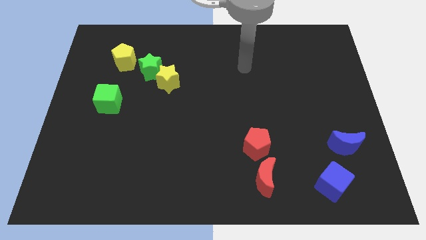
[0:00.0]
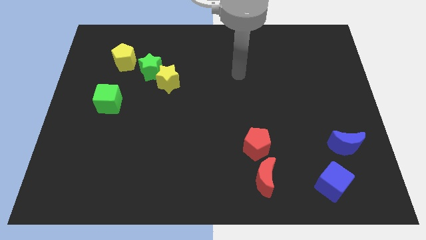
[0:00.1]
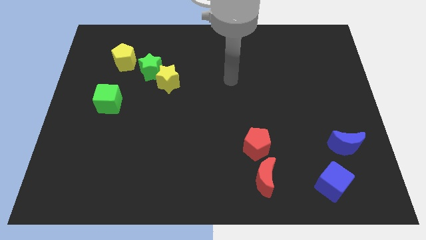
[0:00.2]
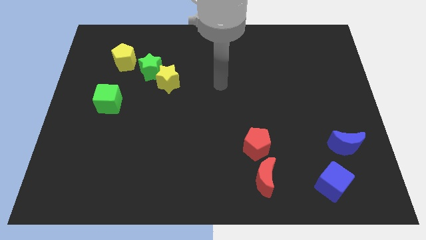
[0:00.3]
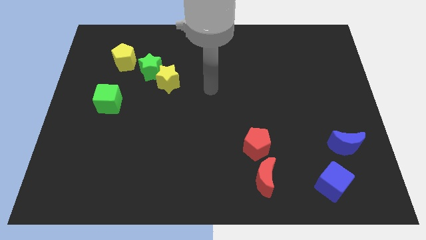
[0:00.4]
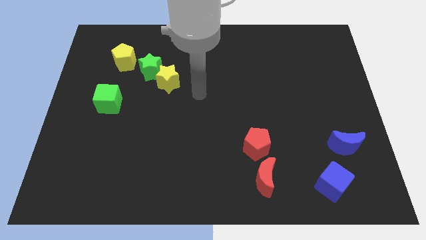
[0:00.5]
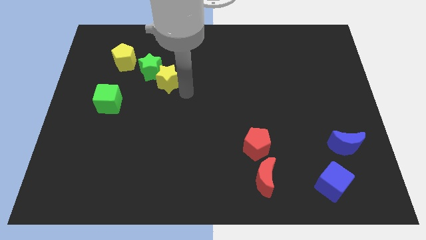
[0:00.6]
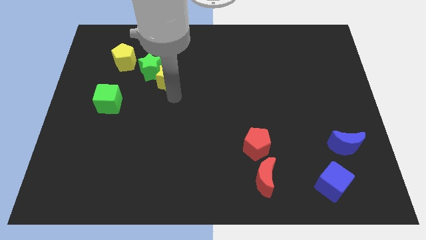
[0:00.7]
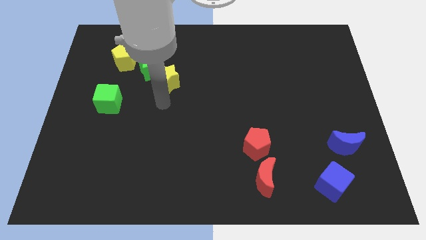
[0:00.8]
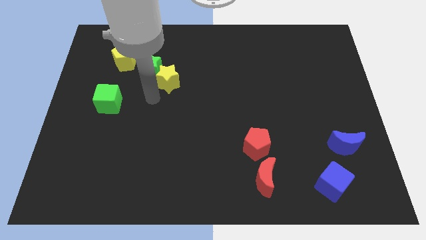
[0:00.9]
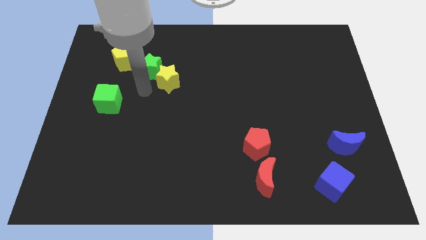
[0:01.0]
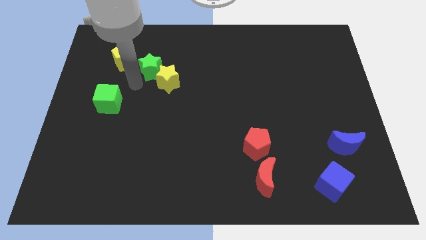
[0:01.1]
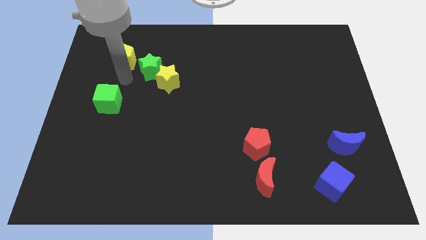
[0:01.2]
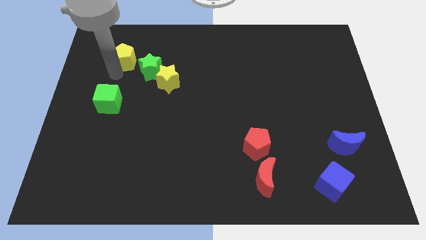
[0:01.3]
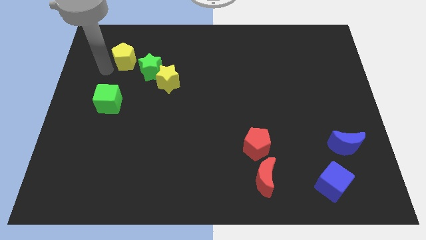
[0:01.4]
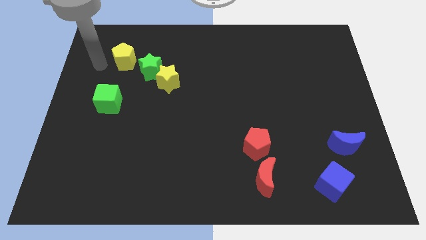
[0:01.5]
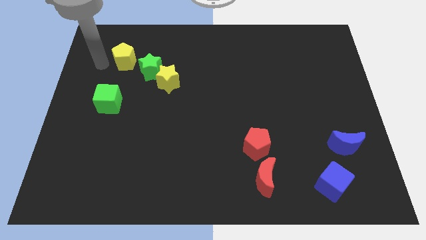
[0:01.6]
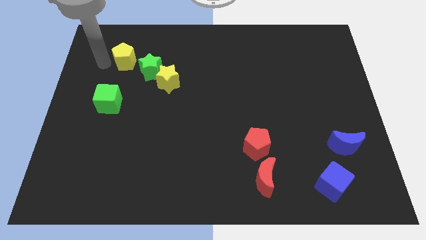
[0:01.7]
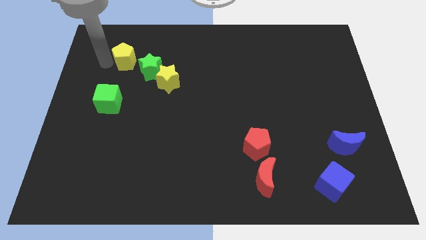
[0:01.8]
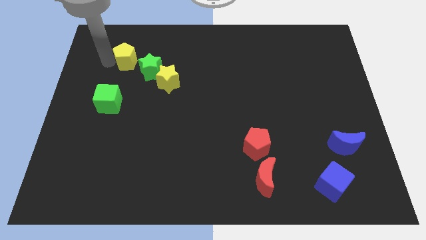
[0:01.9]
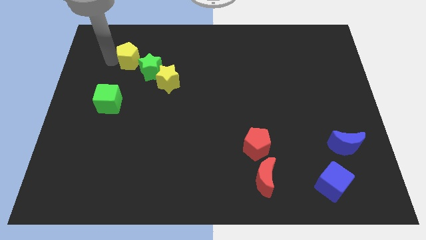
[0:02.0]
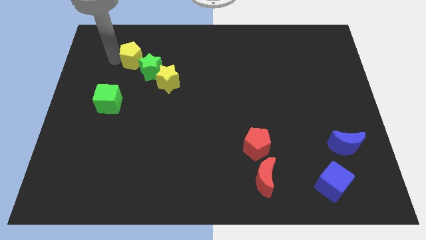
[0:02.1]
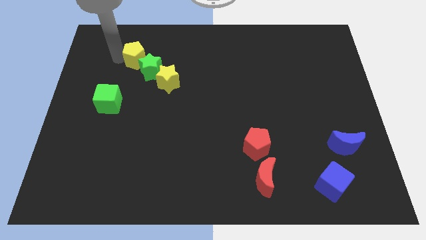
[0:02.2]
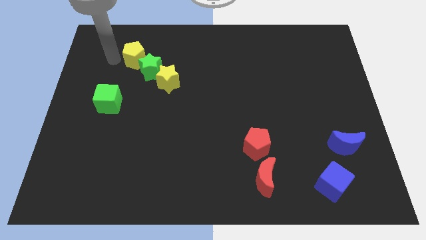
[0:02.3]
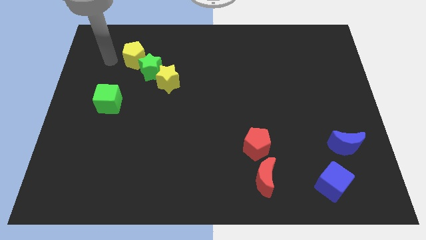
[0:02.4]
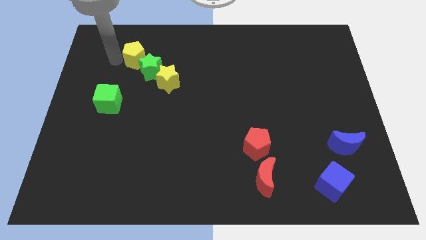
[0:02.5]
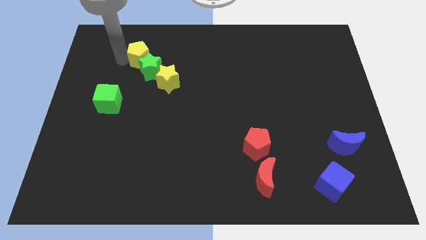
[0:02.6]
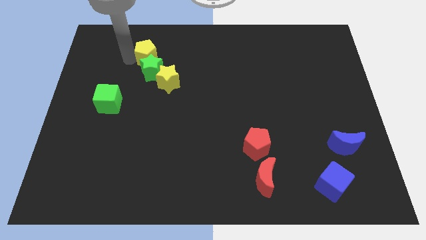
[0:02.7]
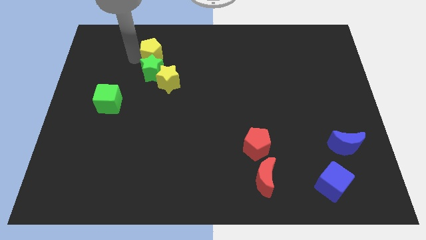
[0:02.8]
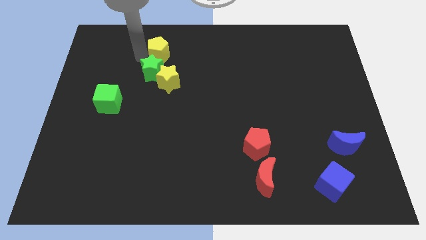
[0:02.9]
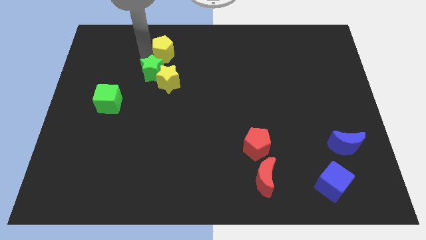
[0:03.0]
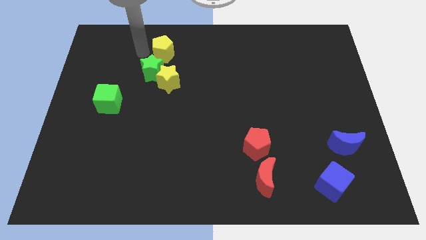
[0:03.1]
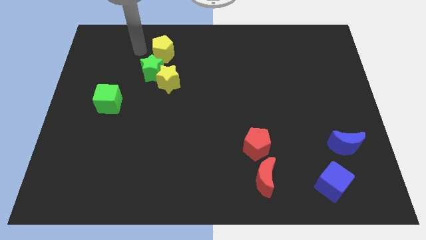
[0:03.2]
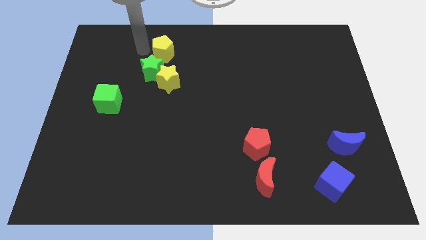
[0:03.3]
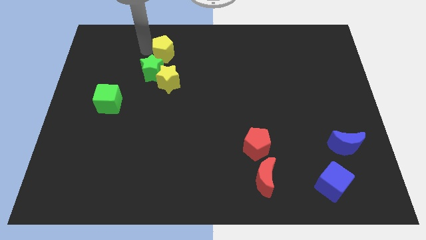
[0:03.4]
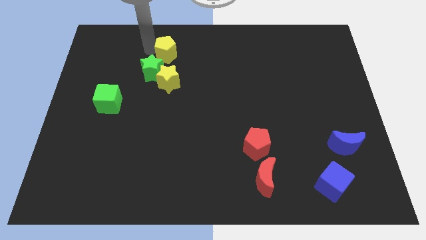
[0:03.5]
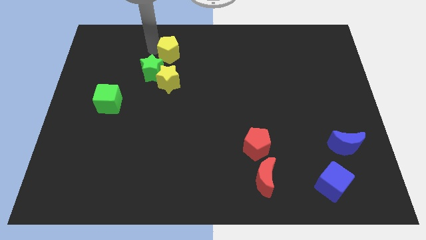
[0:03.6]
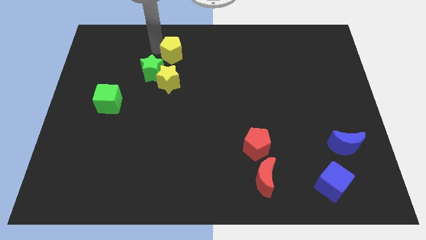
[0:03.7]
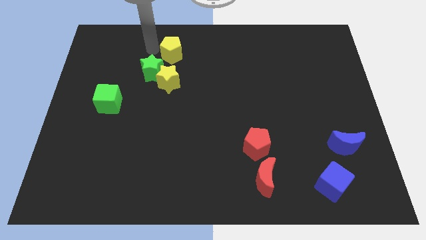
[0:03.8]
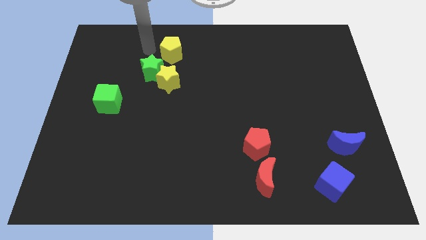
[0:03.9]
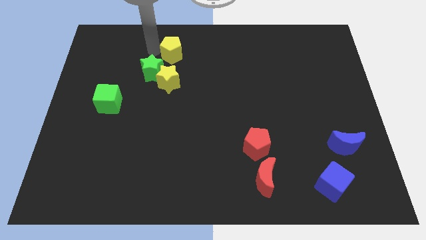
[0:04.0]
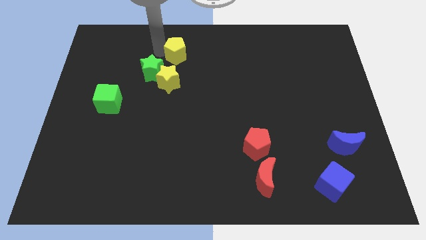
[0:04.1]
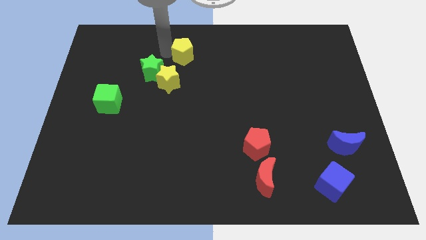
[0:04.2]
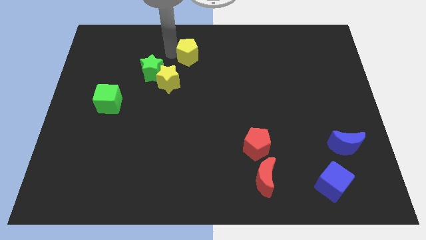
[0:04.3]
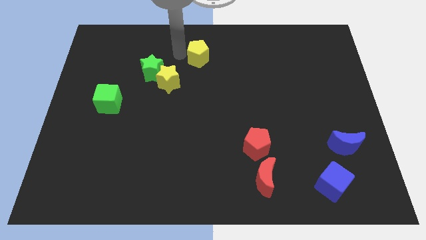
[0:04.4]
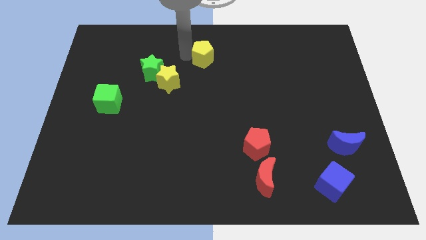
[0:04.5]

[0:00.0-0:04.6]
move the yellow pentagon right

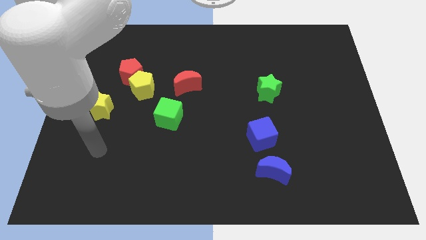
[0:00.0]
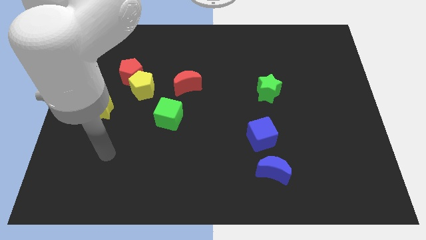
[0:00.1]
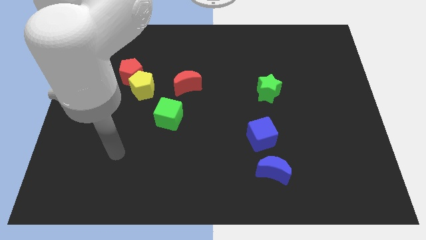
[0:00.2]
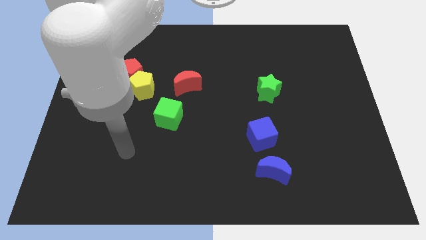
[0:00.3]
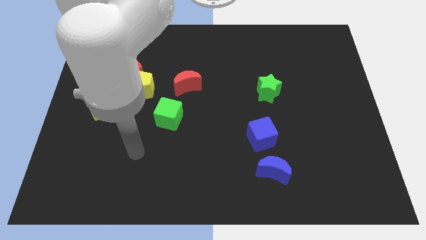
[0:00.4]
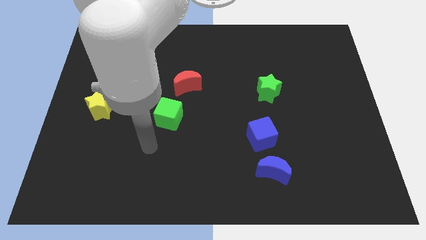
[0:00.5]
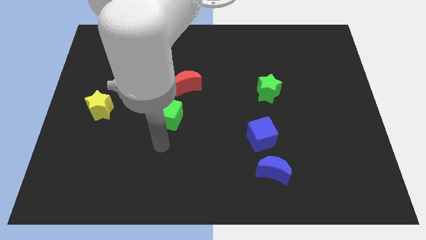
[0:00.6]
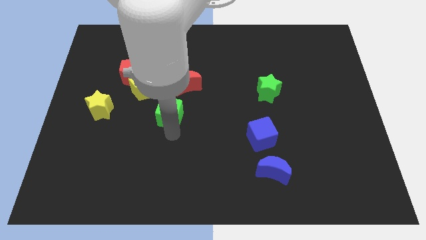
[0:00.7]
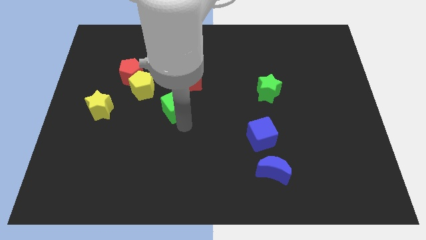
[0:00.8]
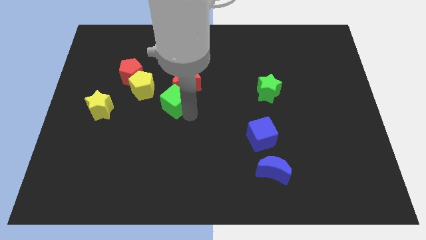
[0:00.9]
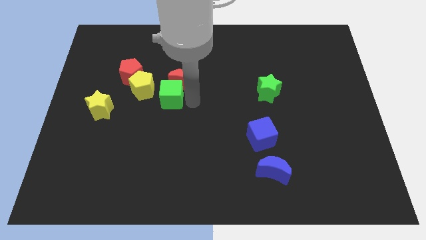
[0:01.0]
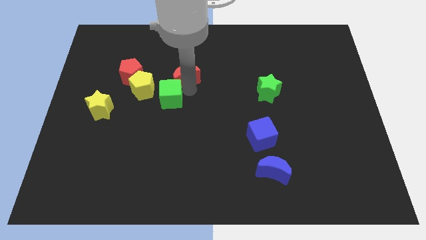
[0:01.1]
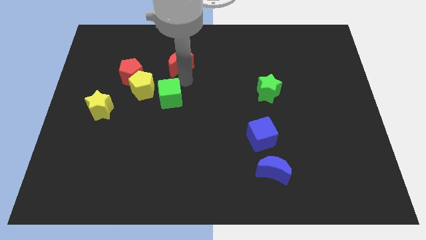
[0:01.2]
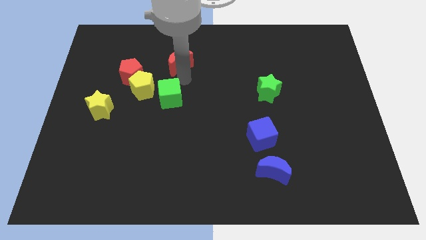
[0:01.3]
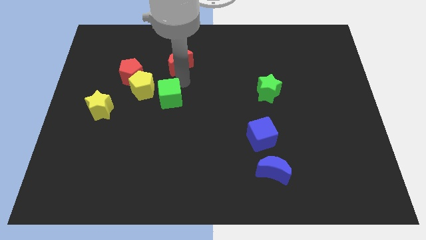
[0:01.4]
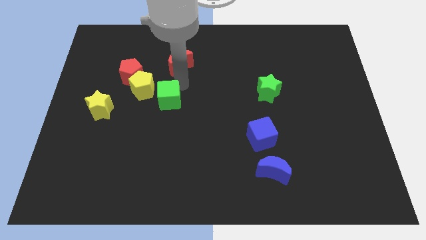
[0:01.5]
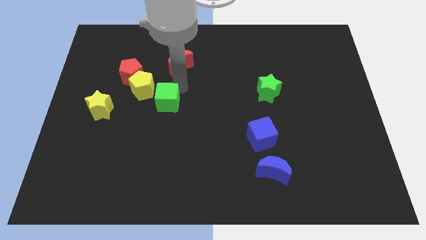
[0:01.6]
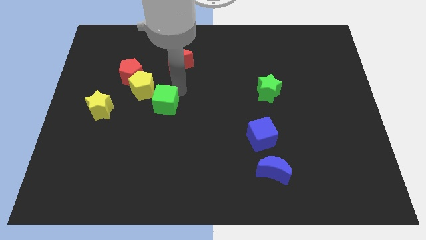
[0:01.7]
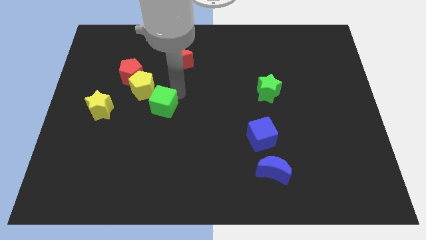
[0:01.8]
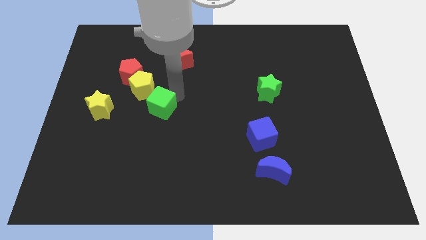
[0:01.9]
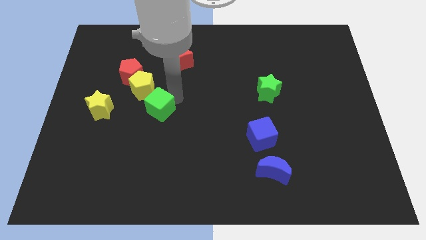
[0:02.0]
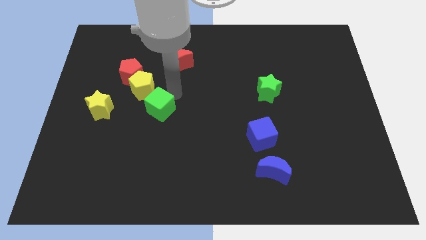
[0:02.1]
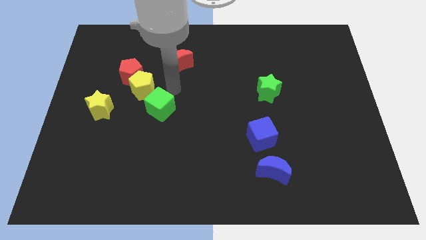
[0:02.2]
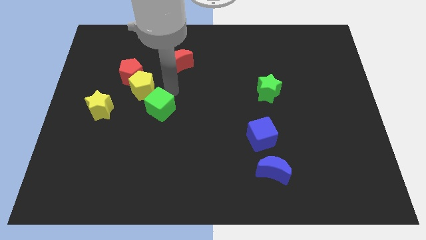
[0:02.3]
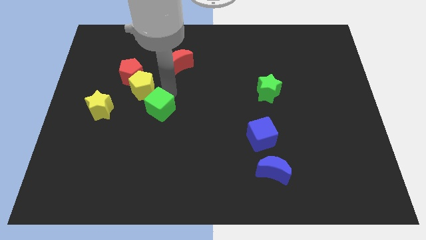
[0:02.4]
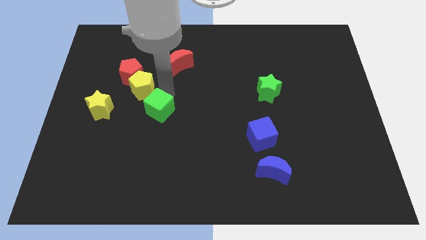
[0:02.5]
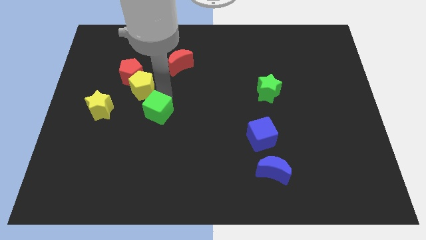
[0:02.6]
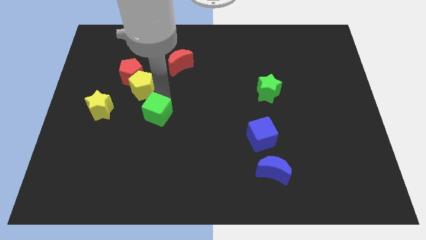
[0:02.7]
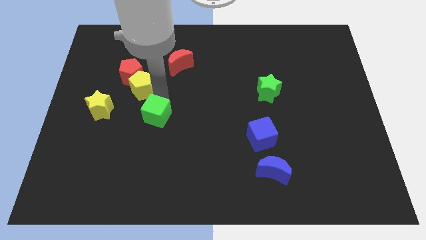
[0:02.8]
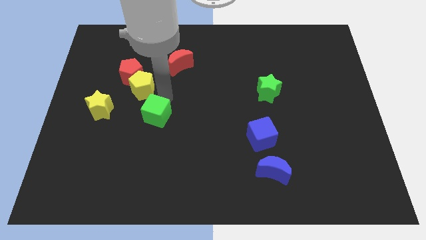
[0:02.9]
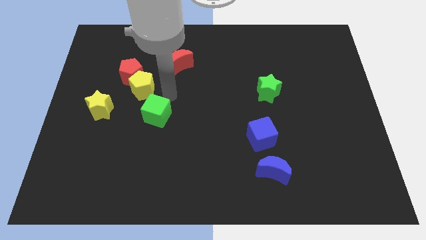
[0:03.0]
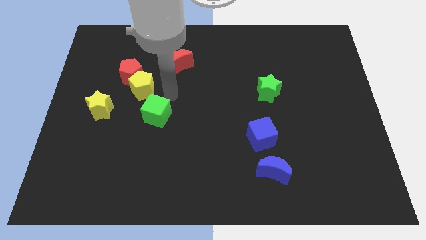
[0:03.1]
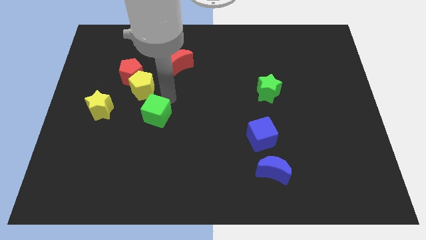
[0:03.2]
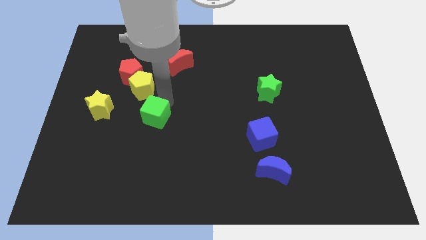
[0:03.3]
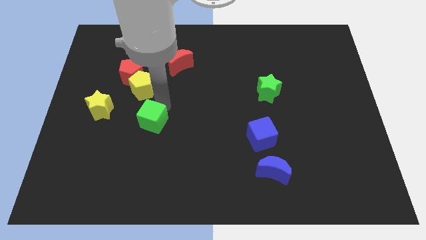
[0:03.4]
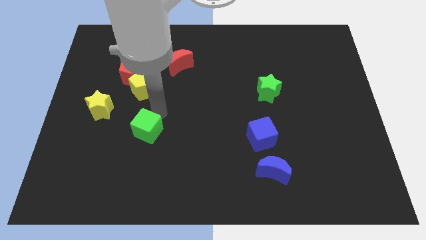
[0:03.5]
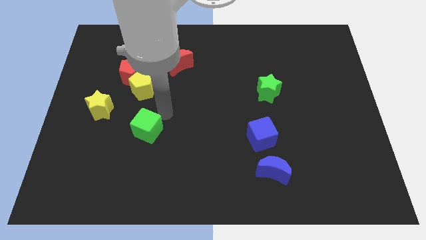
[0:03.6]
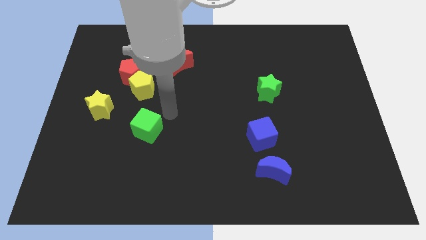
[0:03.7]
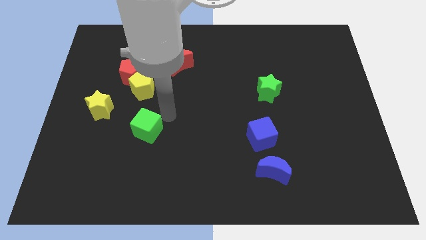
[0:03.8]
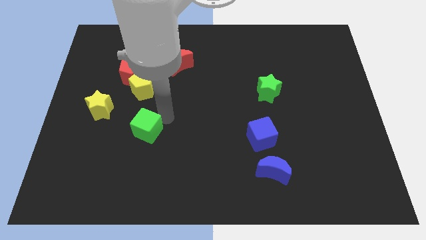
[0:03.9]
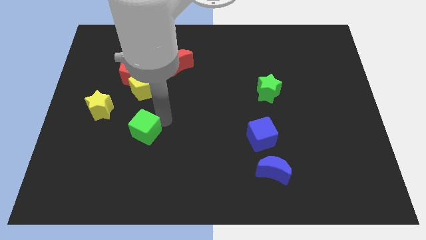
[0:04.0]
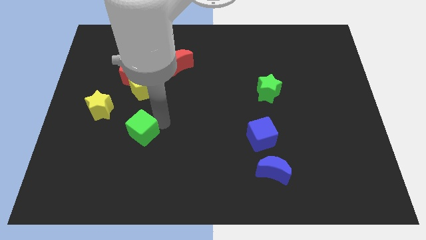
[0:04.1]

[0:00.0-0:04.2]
move the green cube downwards and to the left diagonally slightly

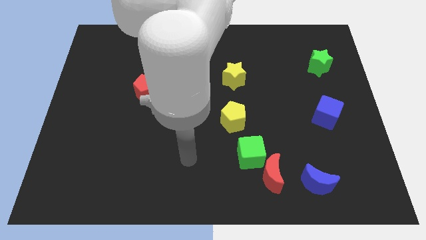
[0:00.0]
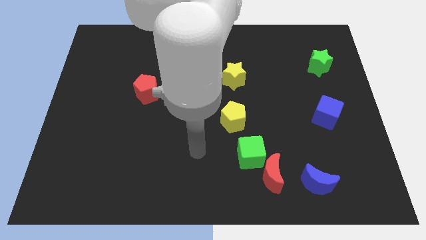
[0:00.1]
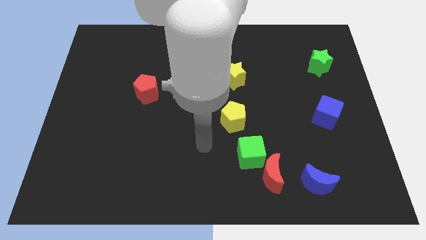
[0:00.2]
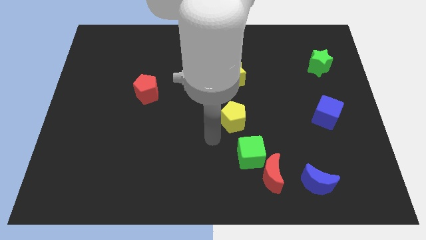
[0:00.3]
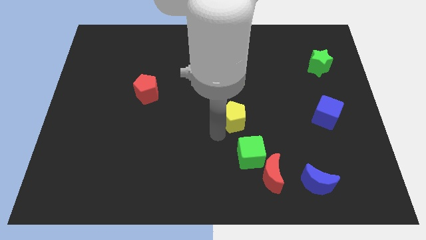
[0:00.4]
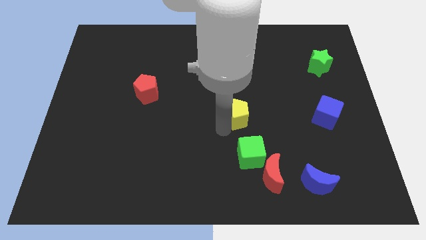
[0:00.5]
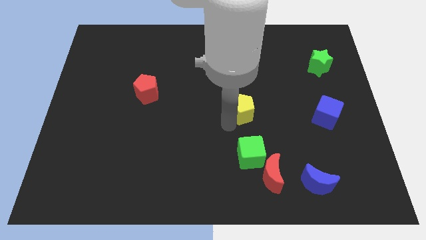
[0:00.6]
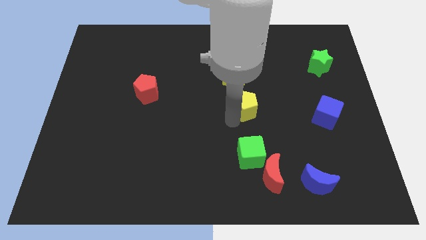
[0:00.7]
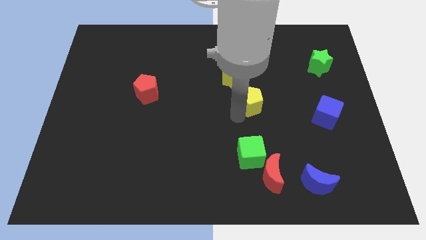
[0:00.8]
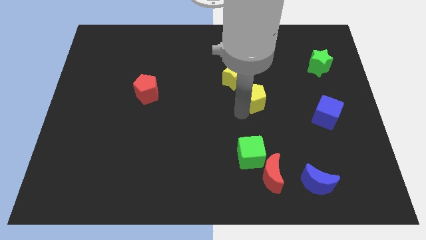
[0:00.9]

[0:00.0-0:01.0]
slightly slide the yellow pentagon up and right diagonally
